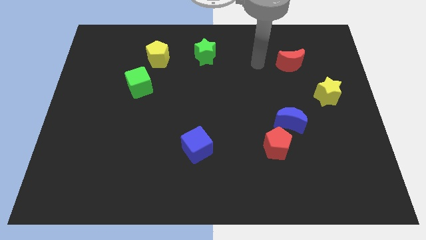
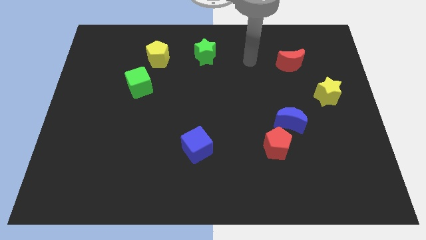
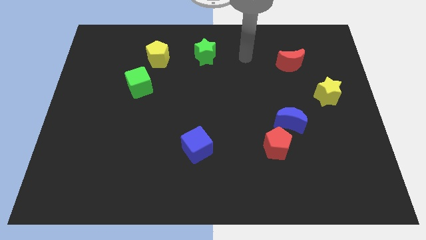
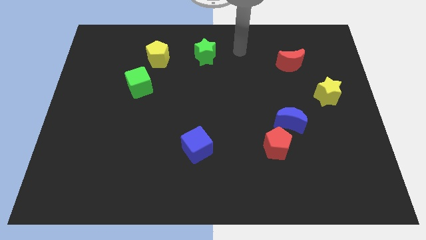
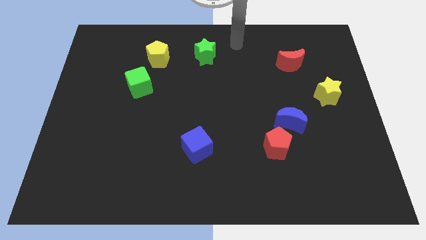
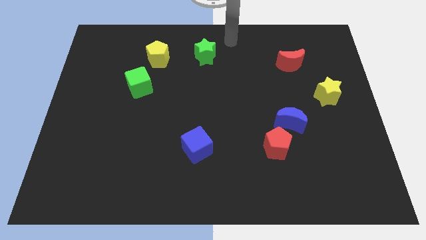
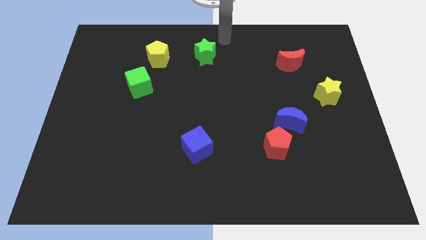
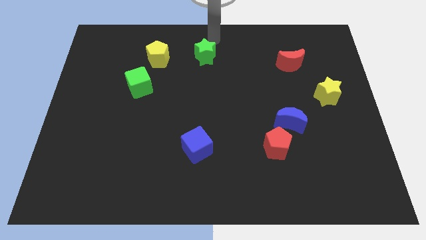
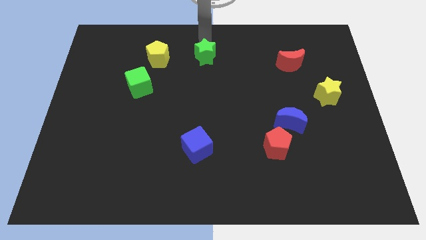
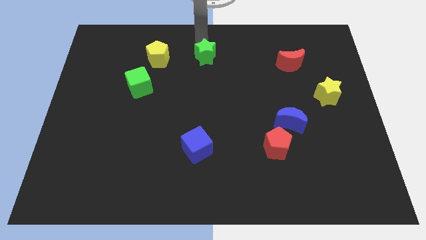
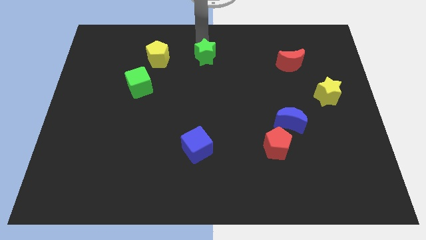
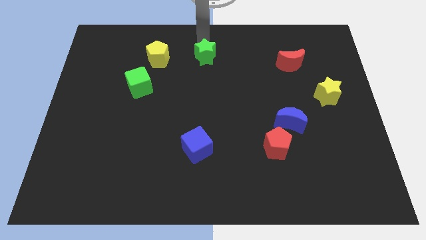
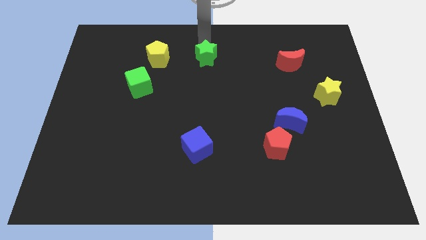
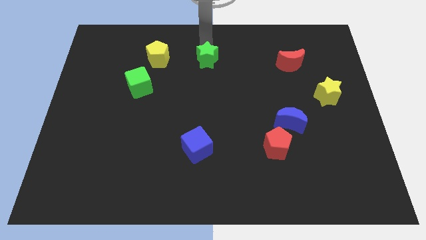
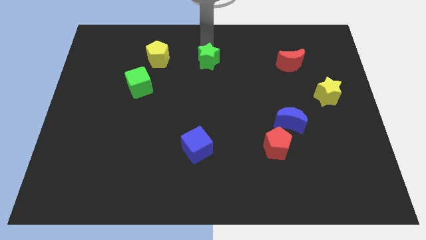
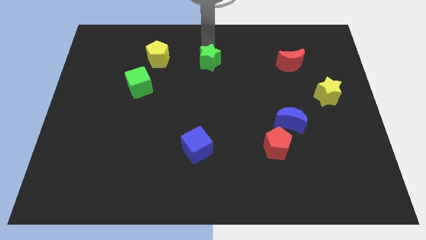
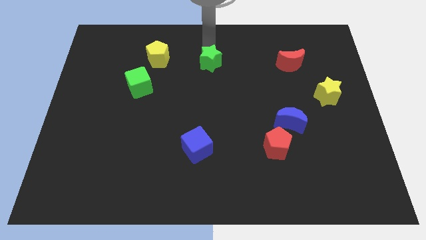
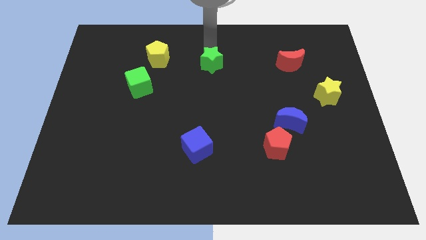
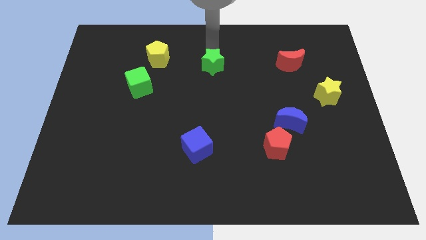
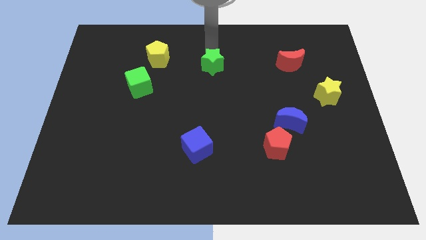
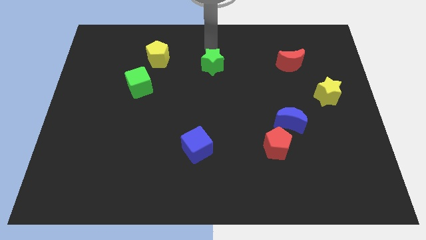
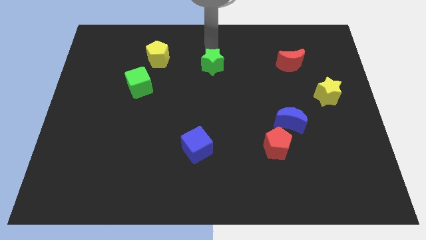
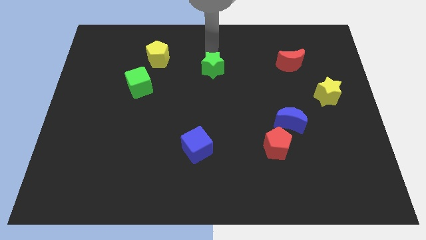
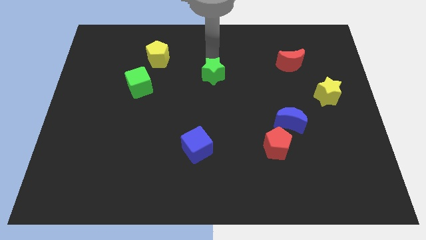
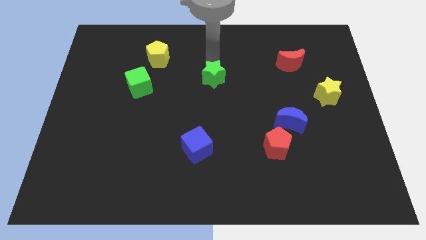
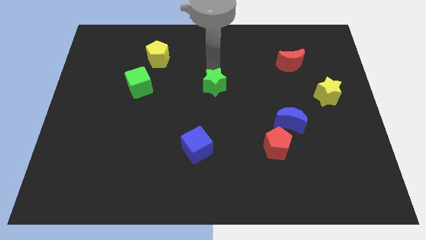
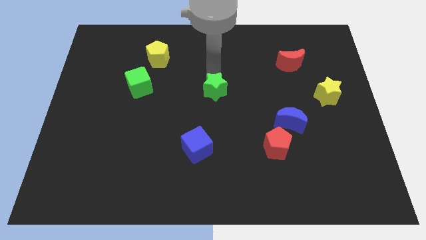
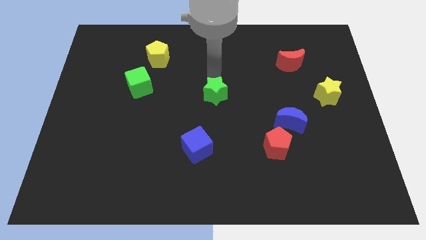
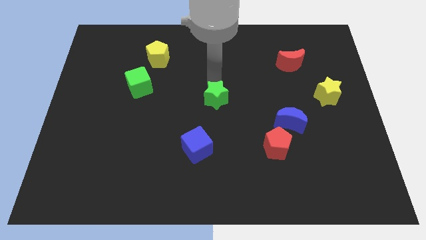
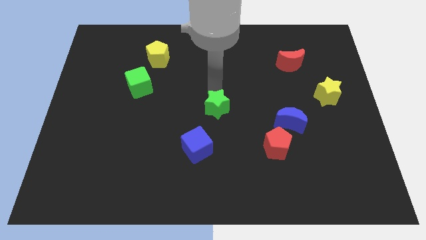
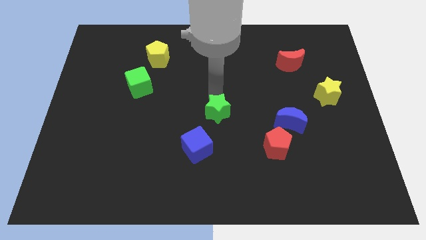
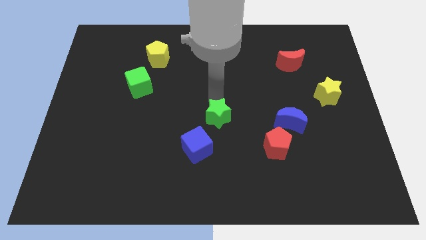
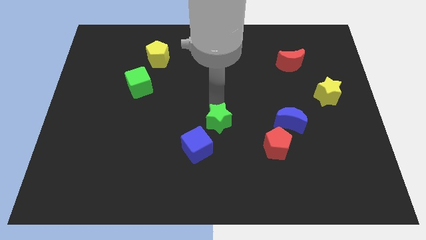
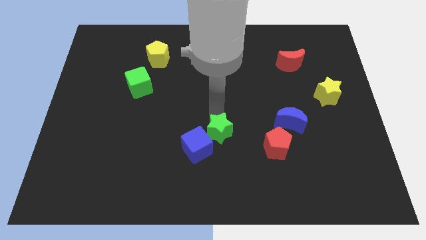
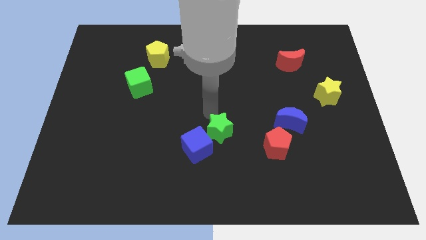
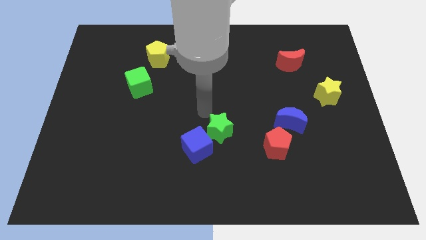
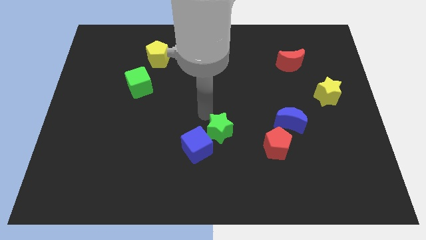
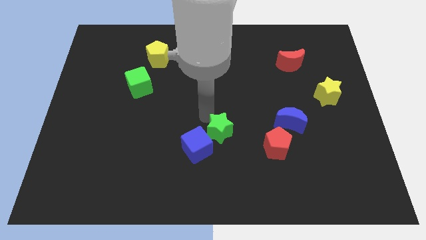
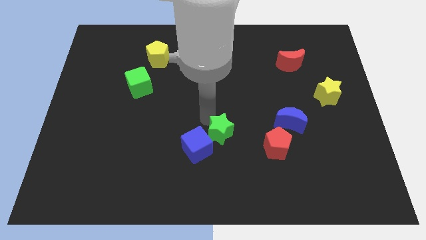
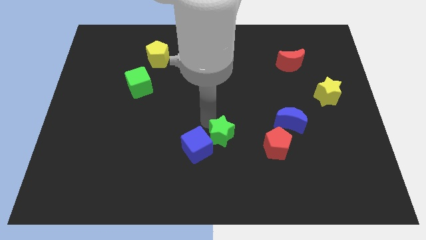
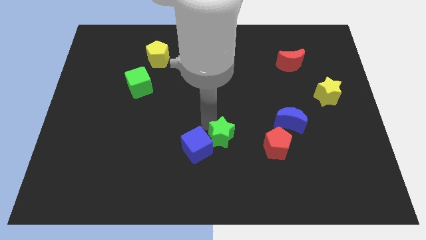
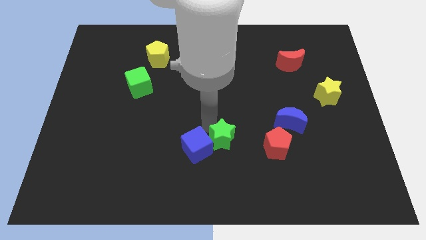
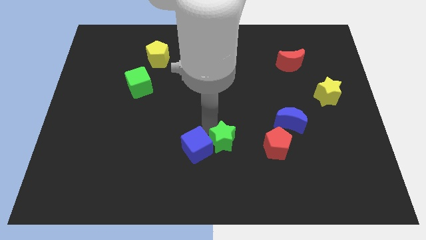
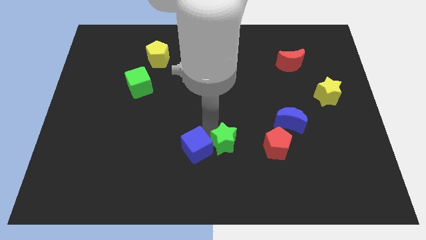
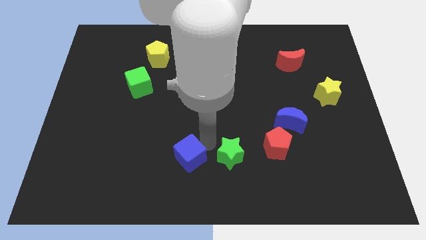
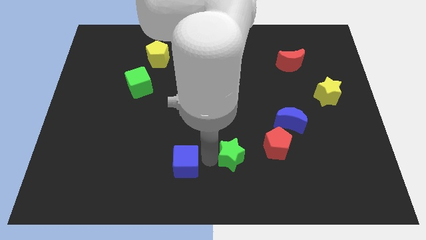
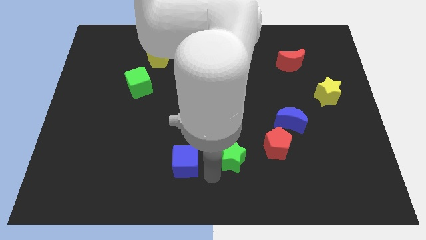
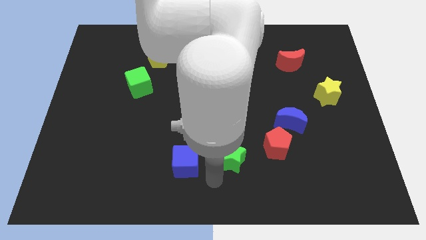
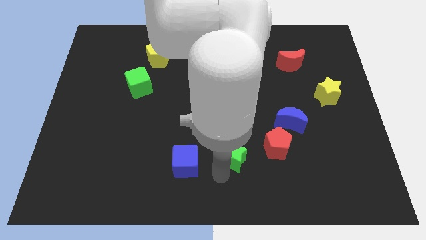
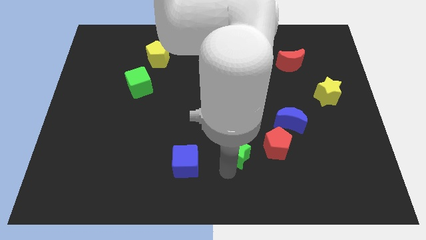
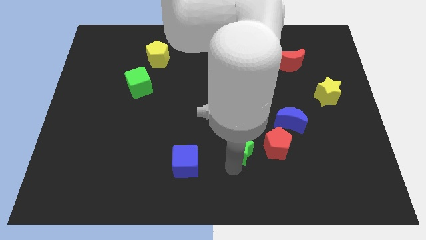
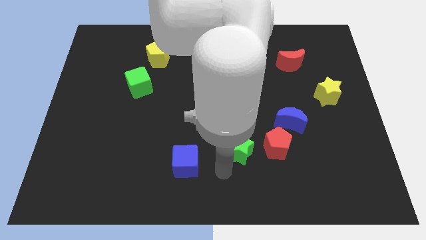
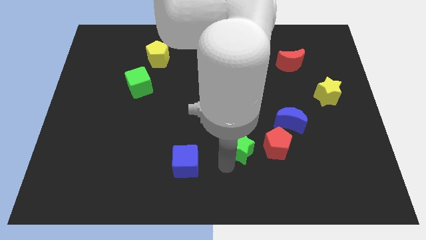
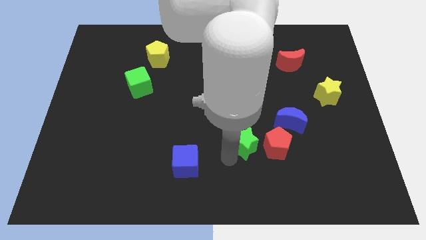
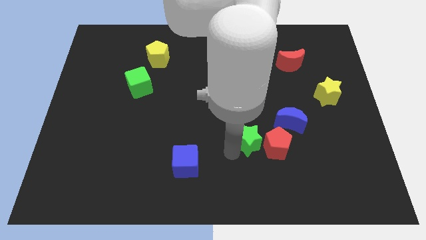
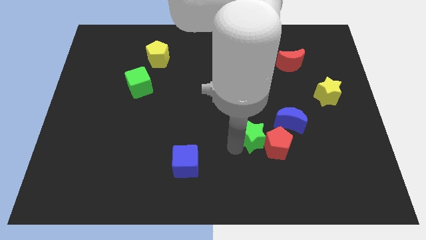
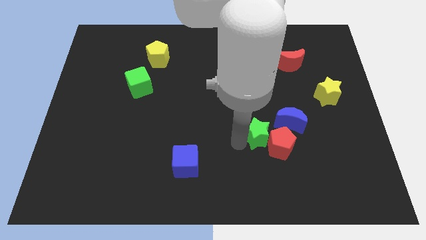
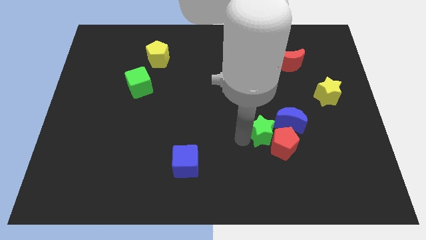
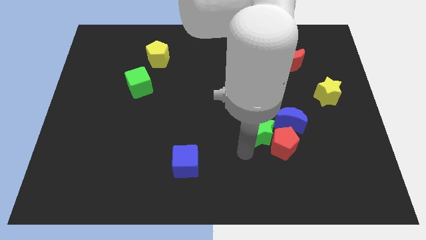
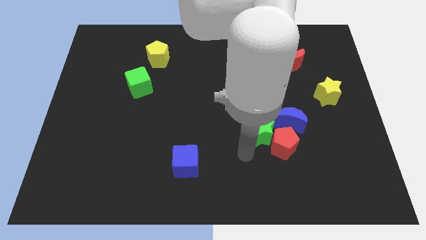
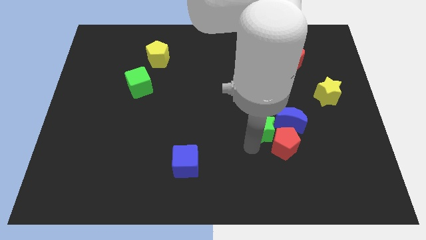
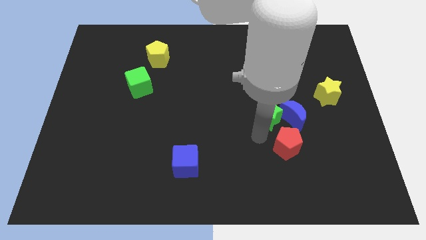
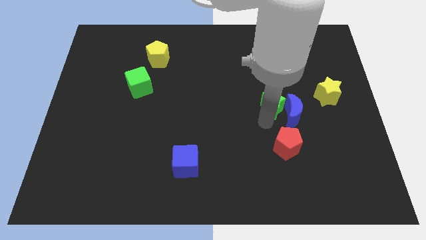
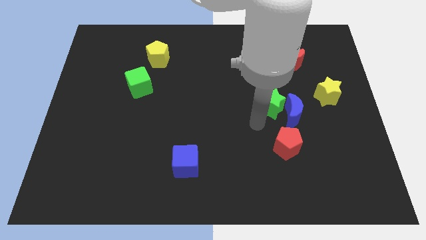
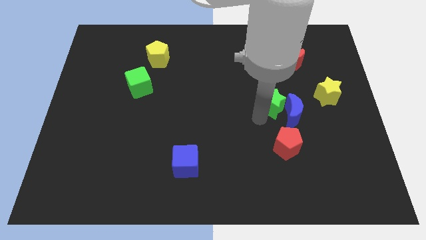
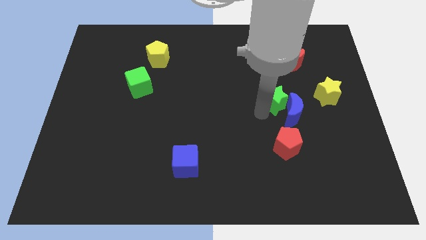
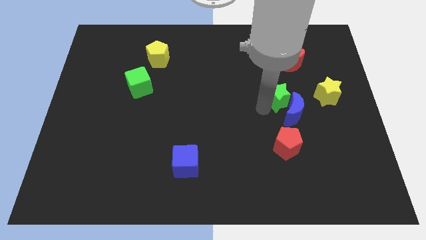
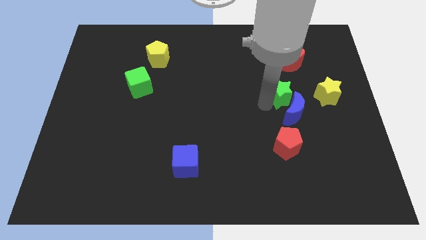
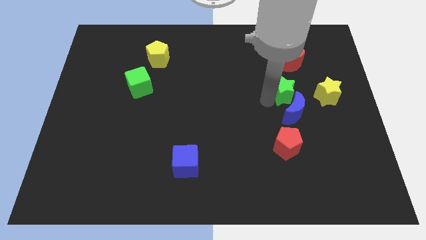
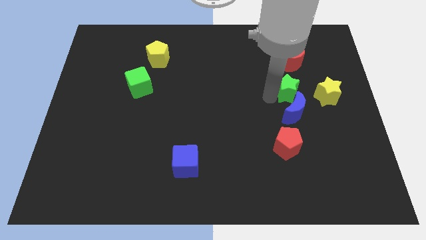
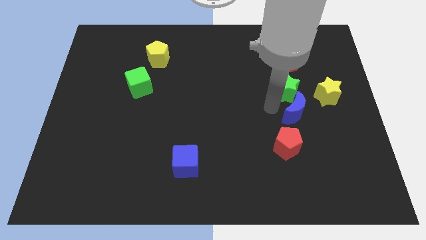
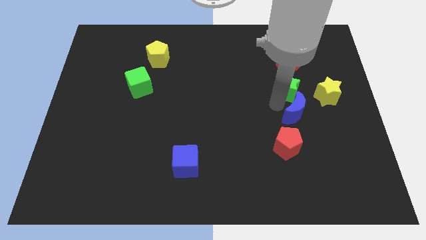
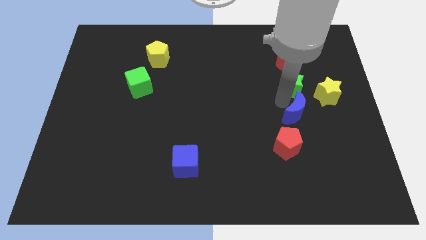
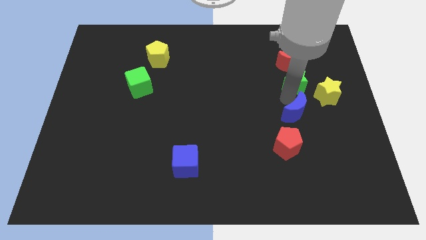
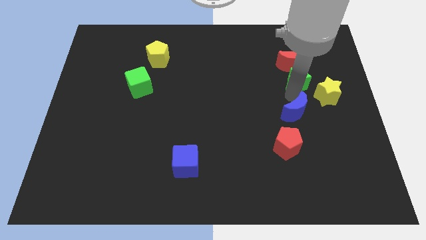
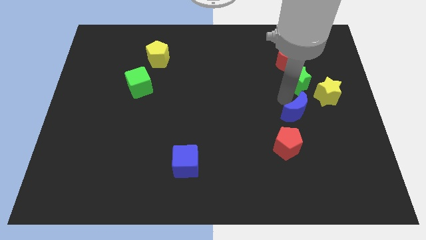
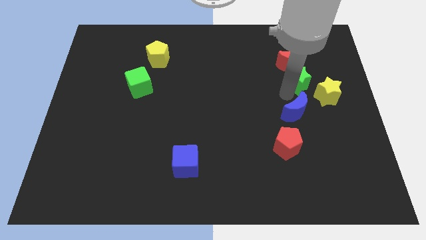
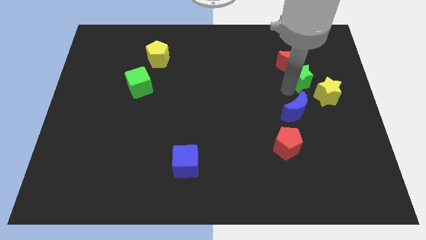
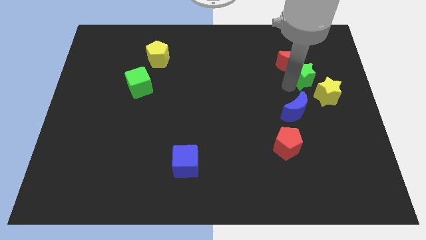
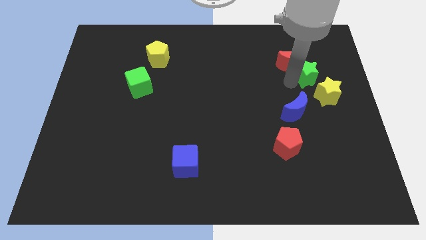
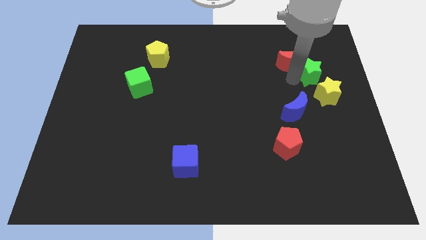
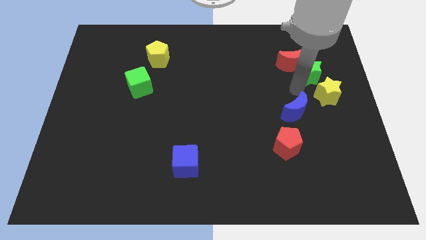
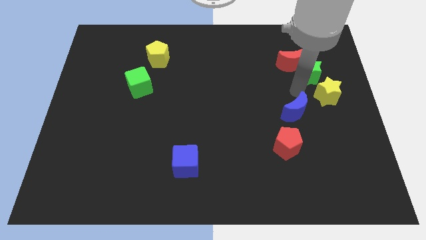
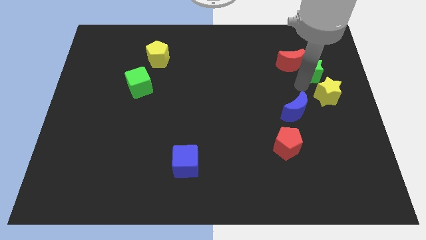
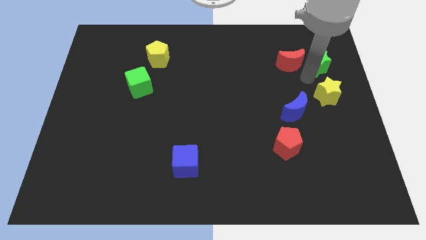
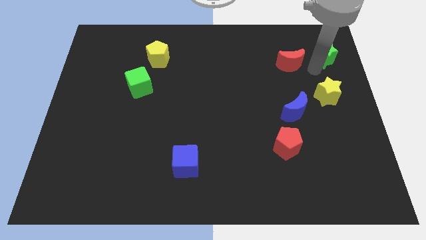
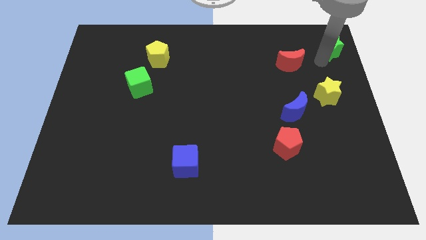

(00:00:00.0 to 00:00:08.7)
slide the green star to the top right of the board
